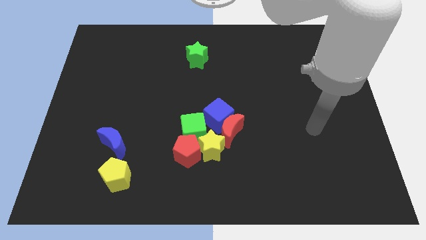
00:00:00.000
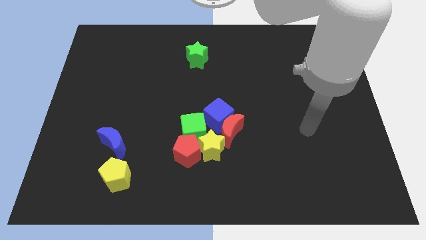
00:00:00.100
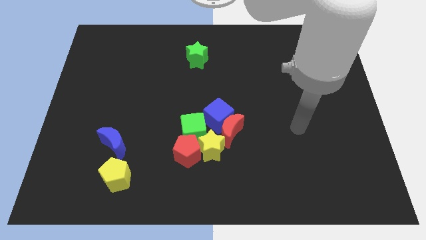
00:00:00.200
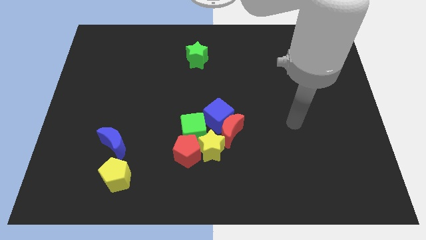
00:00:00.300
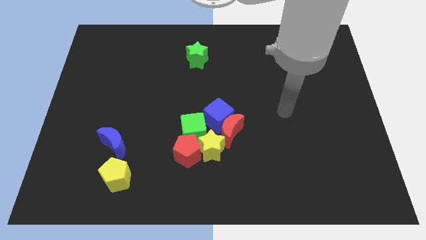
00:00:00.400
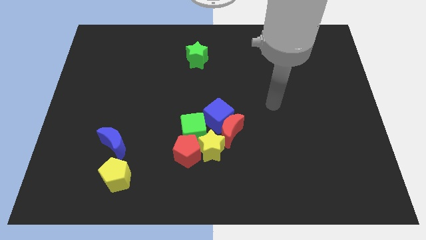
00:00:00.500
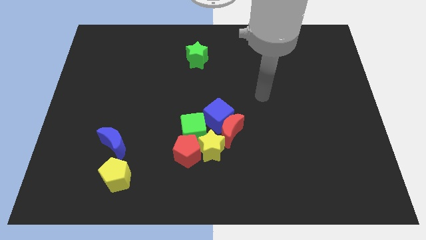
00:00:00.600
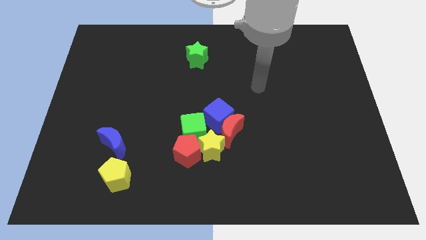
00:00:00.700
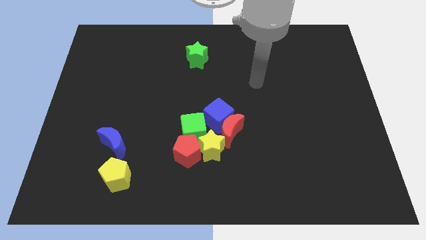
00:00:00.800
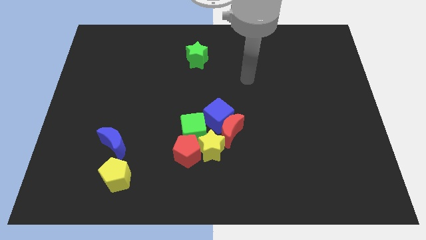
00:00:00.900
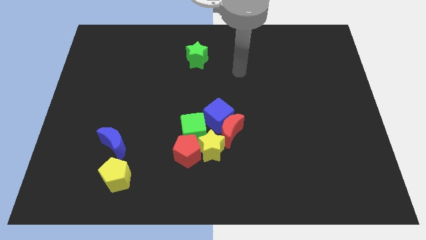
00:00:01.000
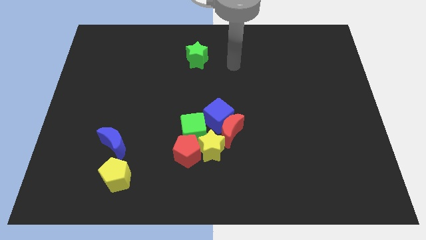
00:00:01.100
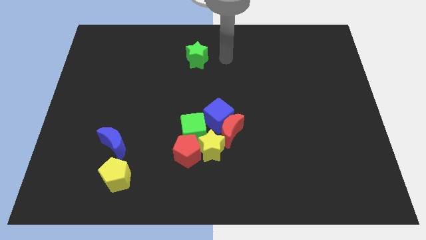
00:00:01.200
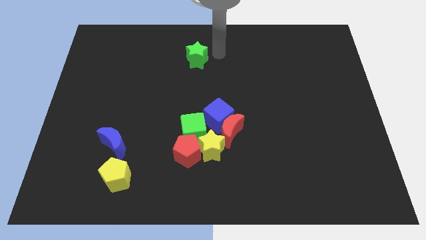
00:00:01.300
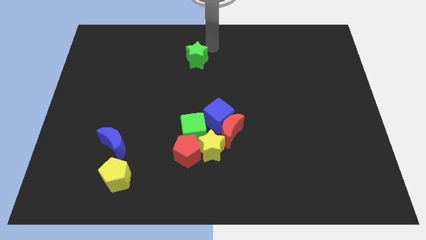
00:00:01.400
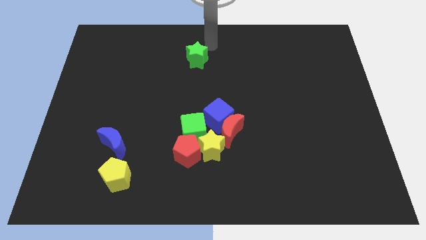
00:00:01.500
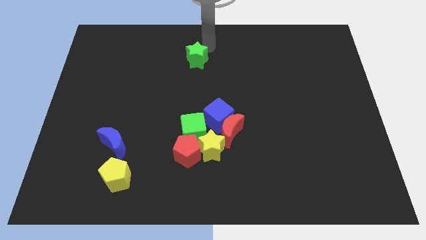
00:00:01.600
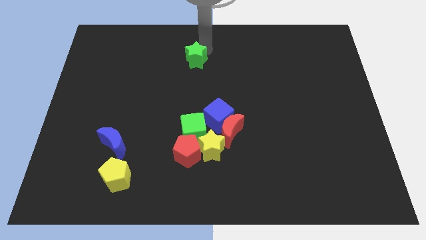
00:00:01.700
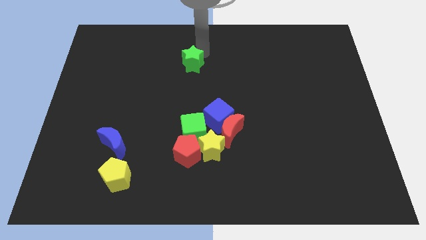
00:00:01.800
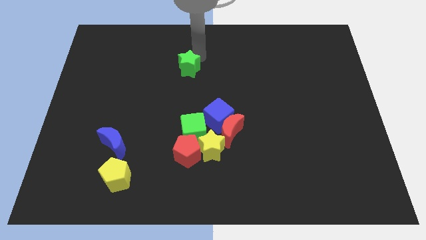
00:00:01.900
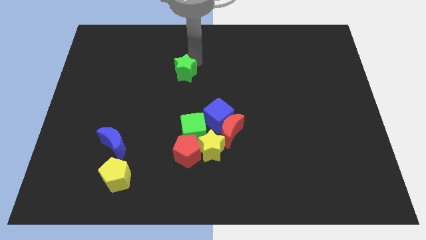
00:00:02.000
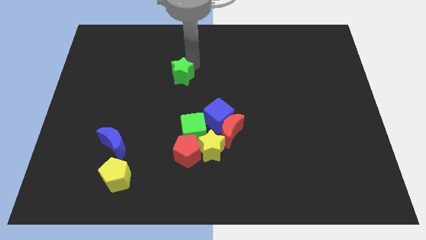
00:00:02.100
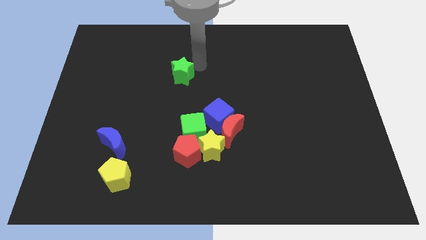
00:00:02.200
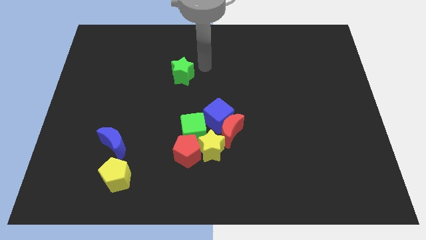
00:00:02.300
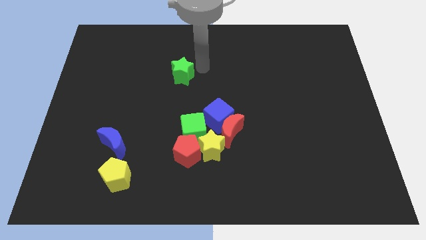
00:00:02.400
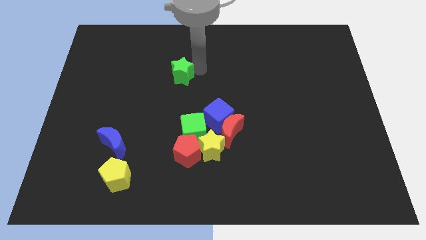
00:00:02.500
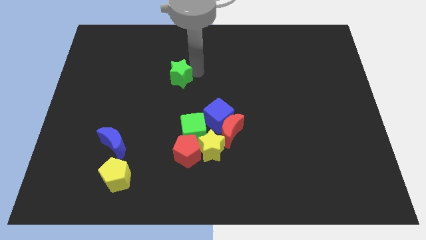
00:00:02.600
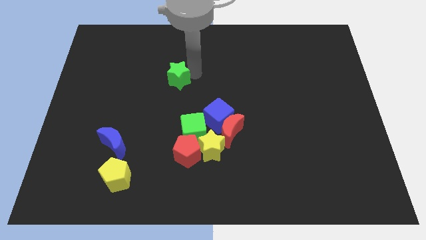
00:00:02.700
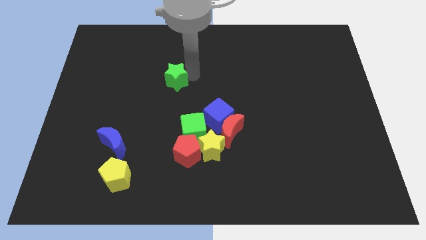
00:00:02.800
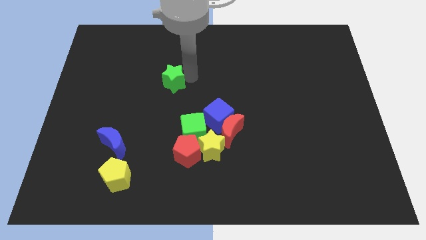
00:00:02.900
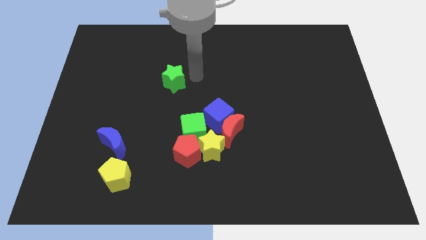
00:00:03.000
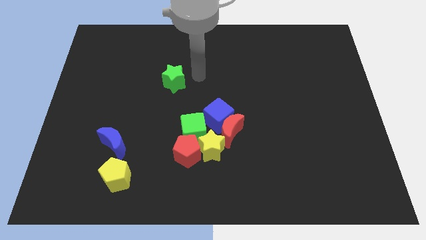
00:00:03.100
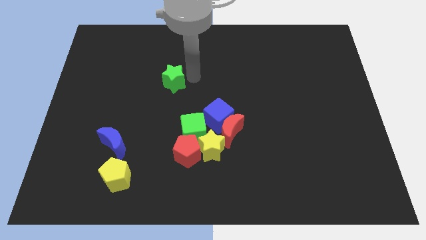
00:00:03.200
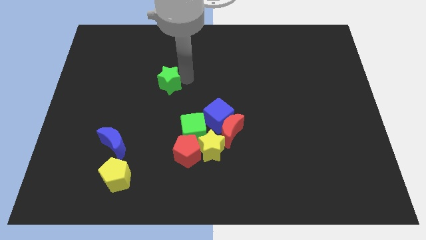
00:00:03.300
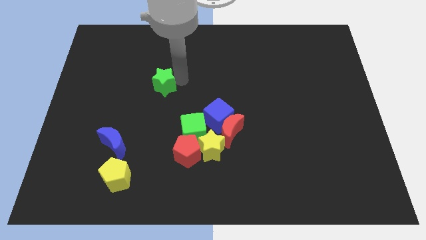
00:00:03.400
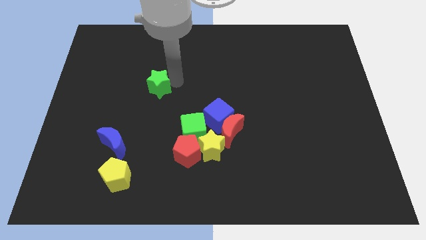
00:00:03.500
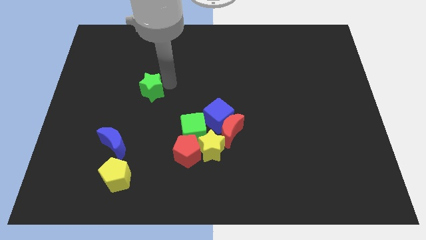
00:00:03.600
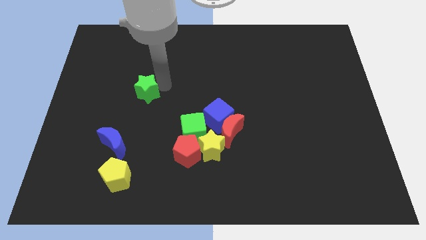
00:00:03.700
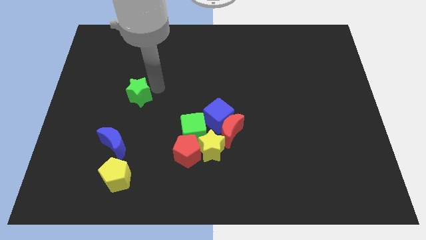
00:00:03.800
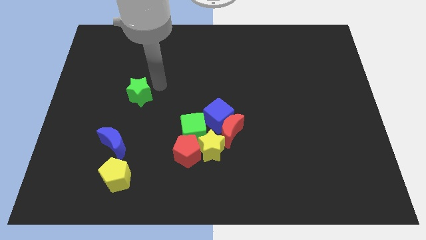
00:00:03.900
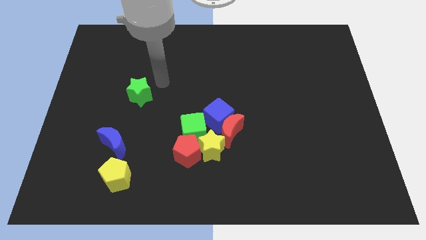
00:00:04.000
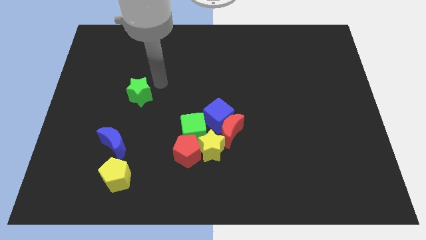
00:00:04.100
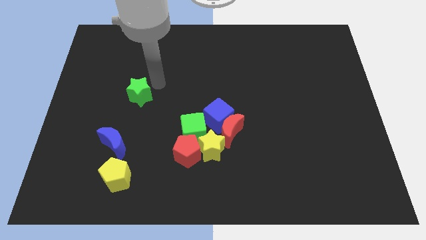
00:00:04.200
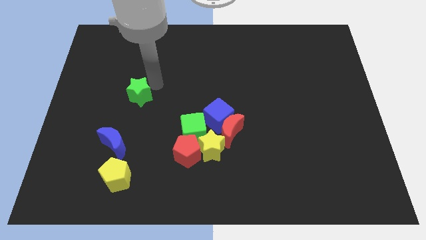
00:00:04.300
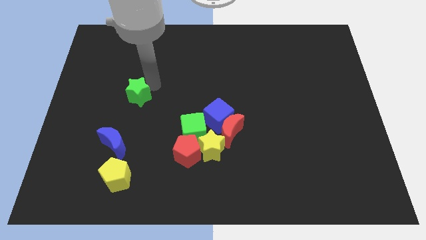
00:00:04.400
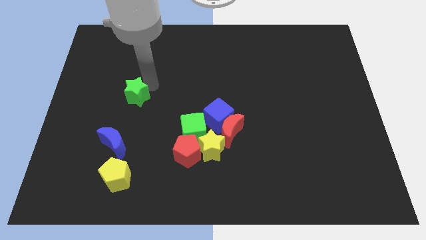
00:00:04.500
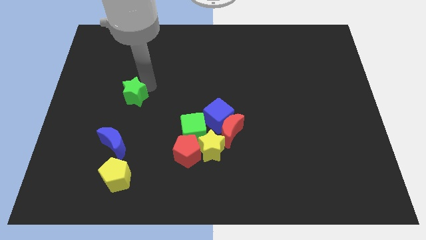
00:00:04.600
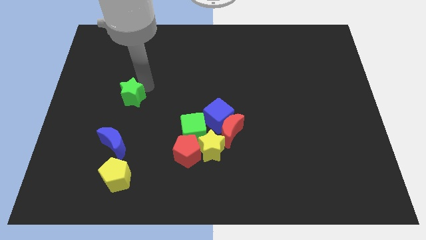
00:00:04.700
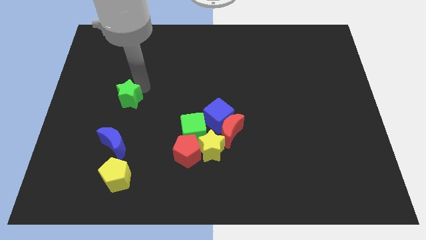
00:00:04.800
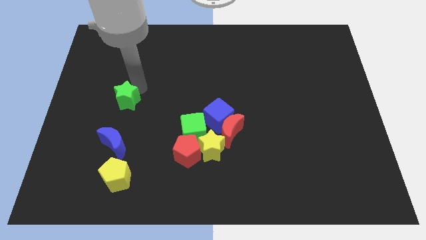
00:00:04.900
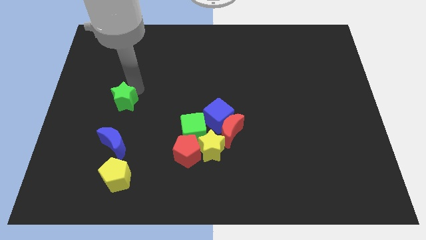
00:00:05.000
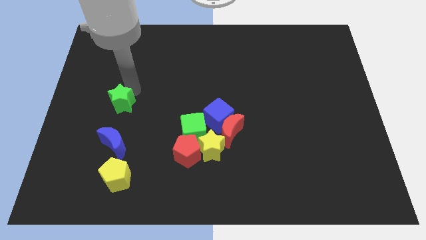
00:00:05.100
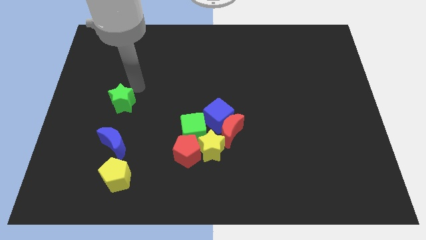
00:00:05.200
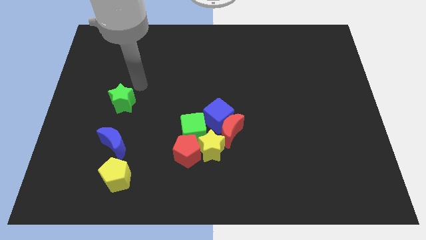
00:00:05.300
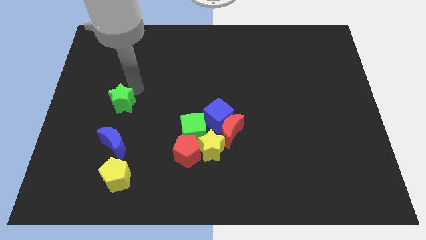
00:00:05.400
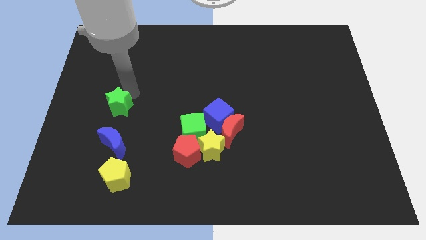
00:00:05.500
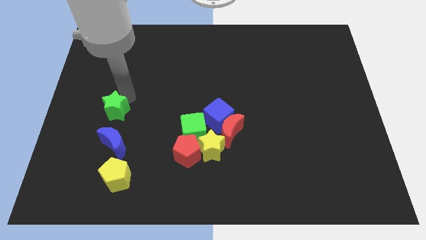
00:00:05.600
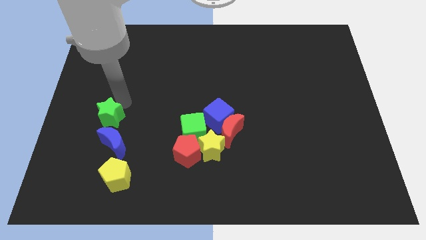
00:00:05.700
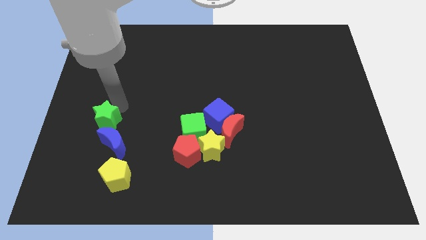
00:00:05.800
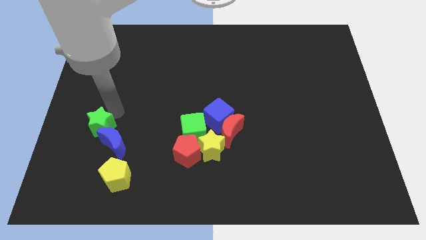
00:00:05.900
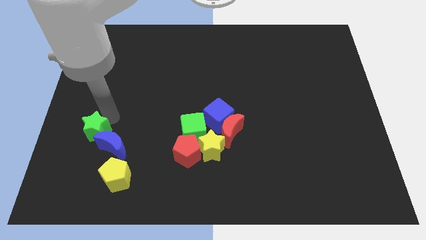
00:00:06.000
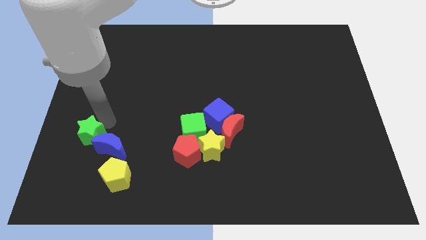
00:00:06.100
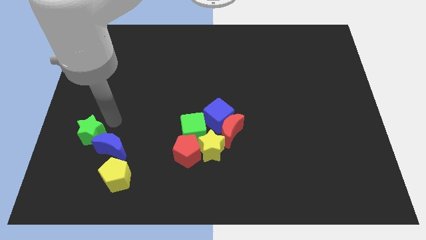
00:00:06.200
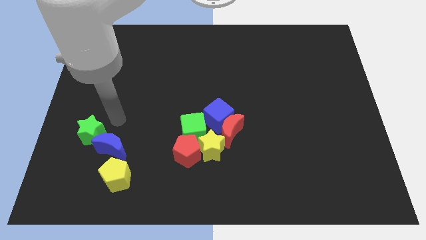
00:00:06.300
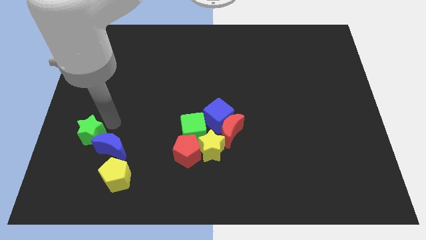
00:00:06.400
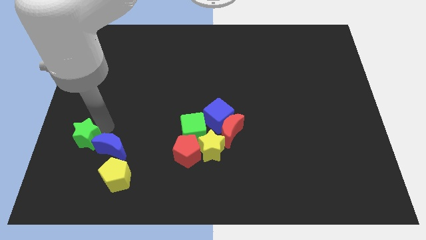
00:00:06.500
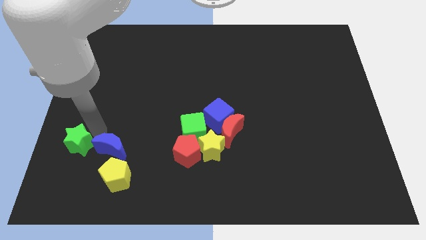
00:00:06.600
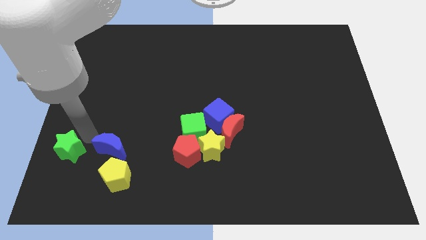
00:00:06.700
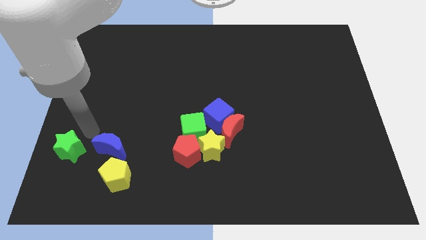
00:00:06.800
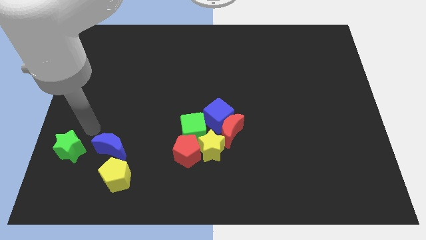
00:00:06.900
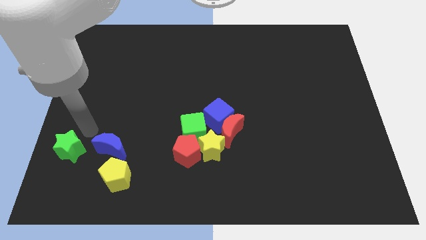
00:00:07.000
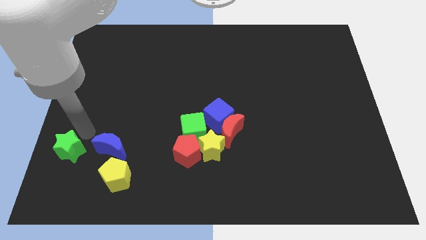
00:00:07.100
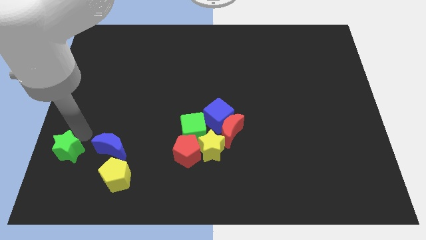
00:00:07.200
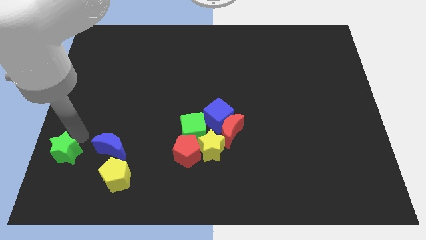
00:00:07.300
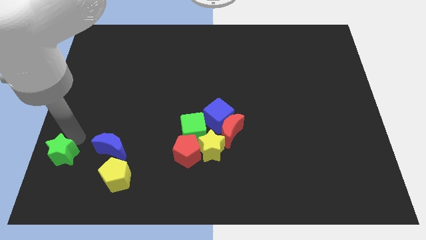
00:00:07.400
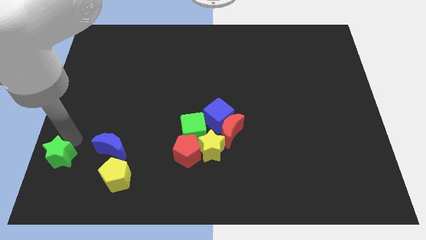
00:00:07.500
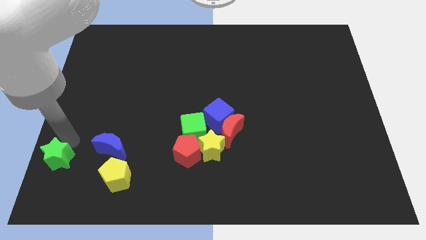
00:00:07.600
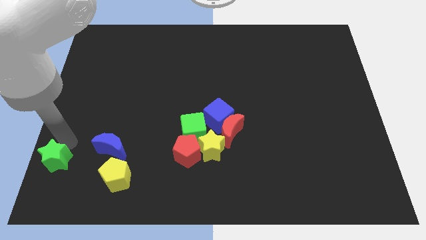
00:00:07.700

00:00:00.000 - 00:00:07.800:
move the green star to the lower left corner
